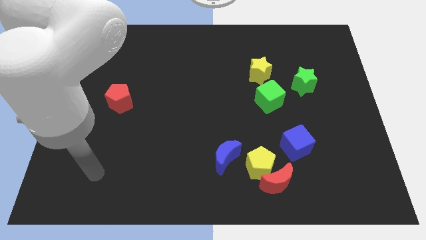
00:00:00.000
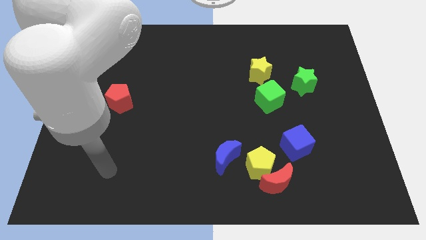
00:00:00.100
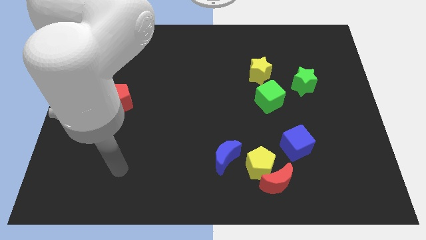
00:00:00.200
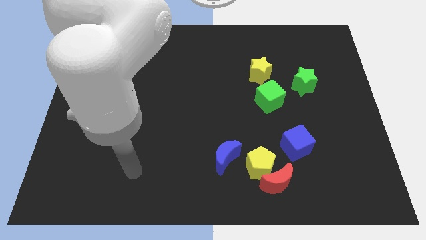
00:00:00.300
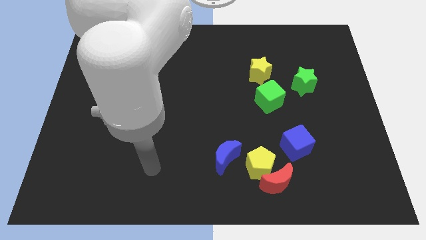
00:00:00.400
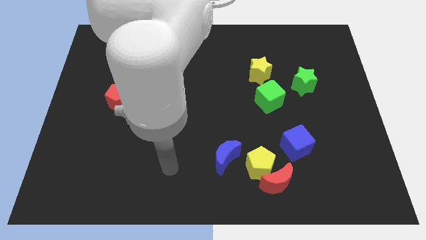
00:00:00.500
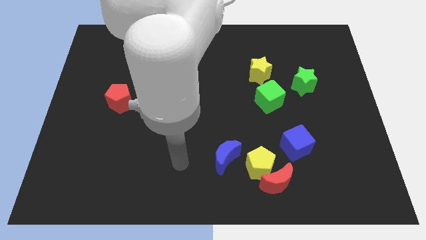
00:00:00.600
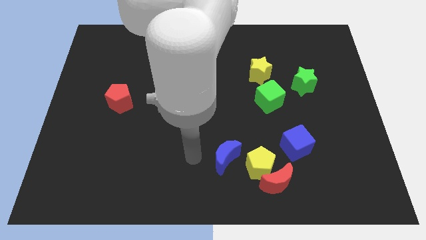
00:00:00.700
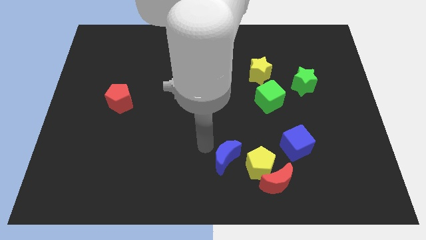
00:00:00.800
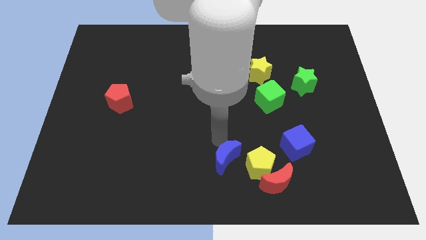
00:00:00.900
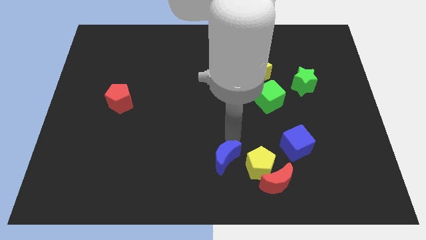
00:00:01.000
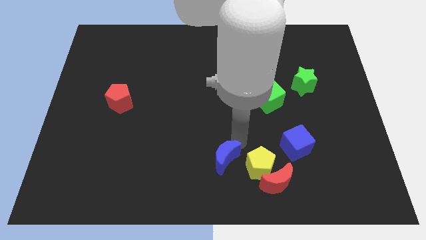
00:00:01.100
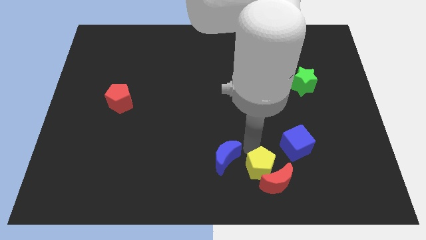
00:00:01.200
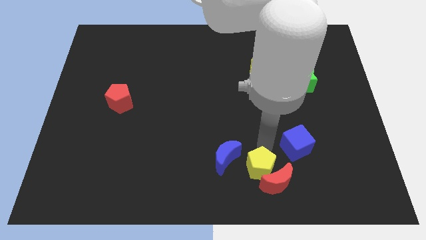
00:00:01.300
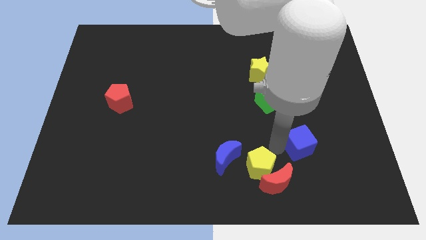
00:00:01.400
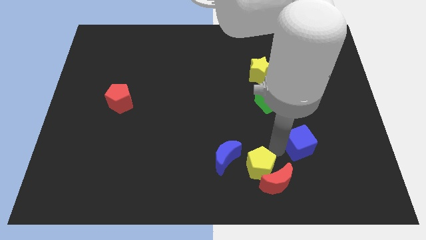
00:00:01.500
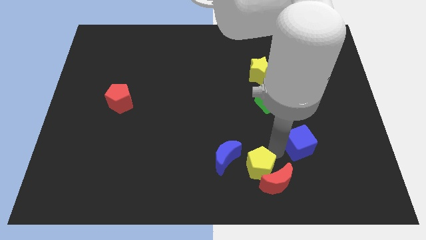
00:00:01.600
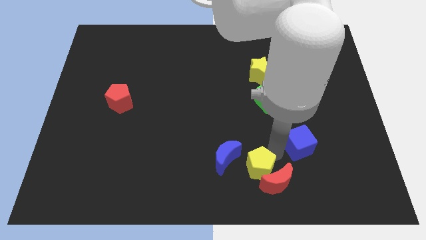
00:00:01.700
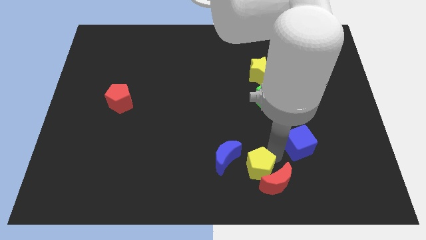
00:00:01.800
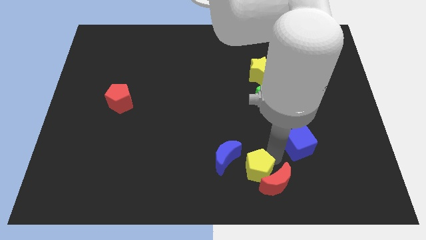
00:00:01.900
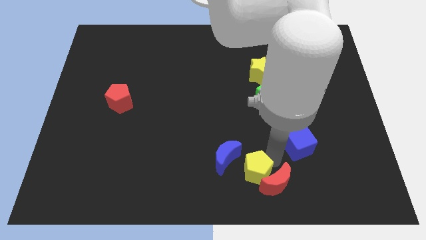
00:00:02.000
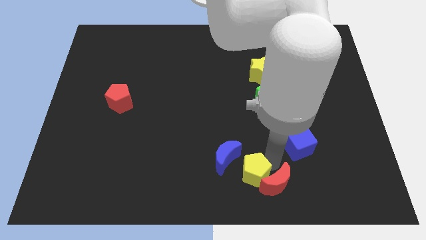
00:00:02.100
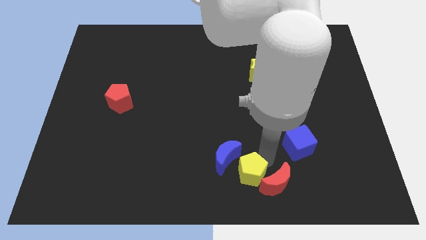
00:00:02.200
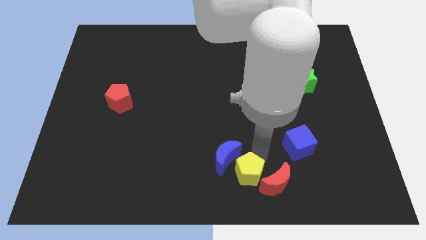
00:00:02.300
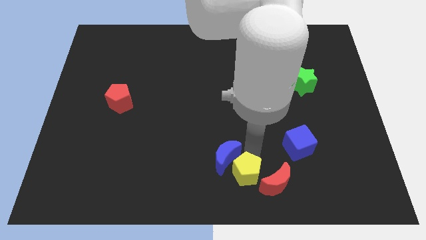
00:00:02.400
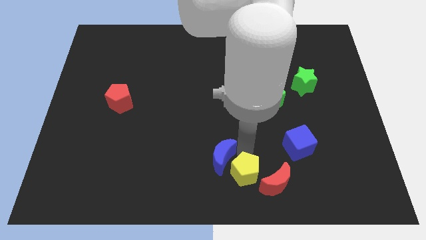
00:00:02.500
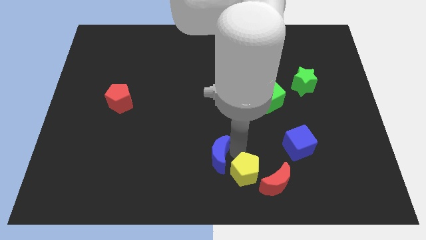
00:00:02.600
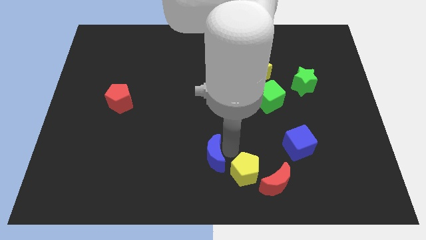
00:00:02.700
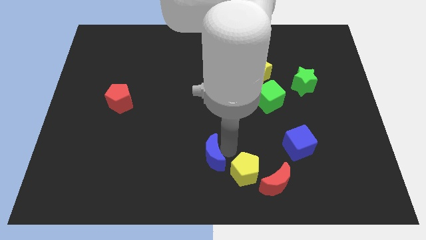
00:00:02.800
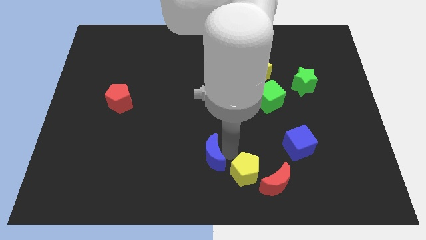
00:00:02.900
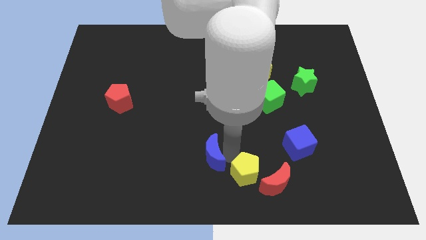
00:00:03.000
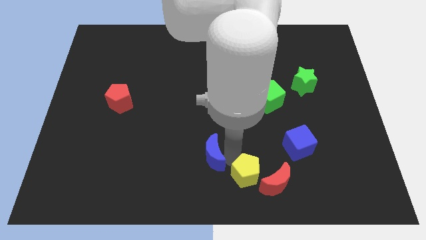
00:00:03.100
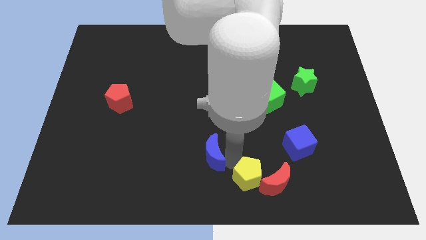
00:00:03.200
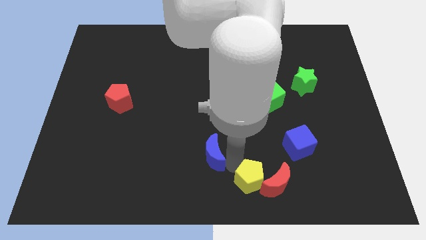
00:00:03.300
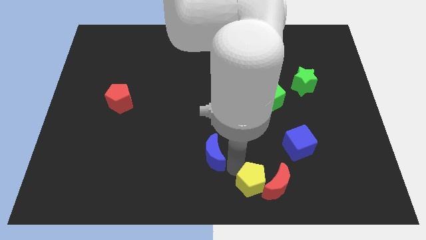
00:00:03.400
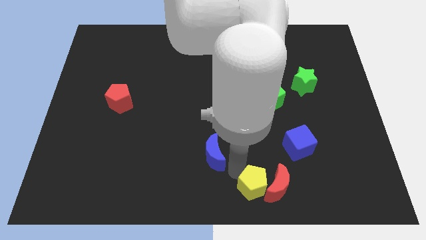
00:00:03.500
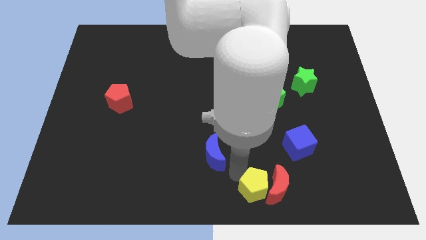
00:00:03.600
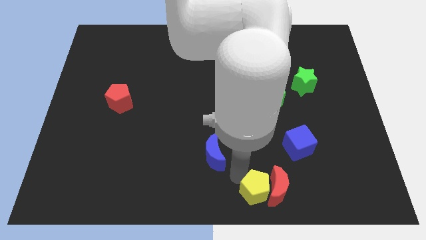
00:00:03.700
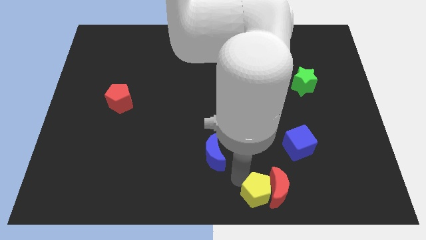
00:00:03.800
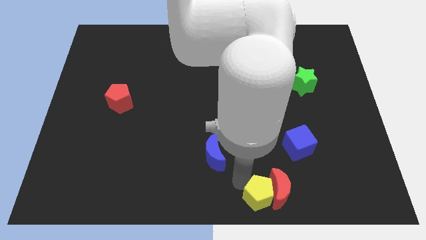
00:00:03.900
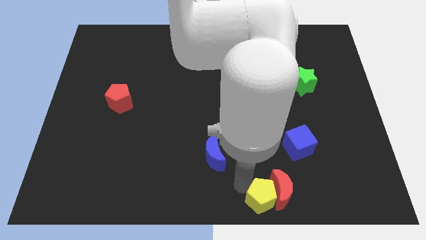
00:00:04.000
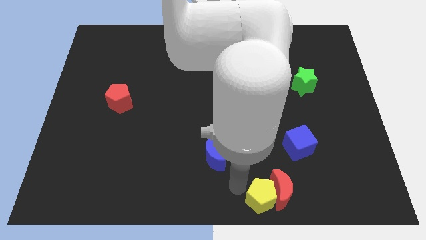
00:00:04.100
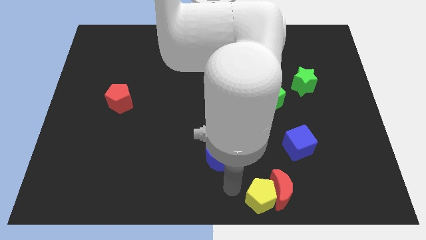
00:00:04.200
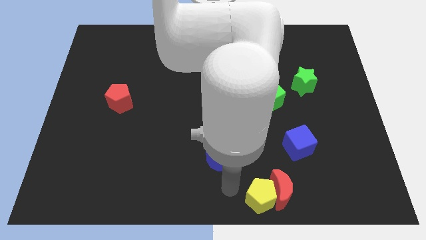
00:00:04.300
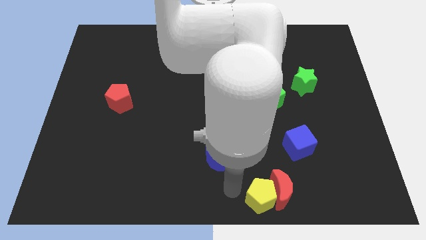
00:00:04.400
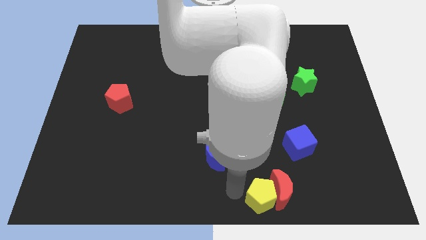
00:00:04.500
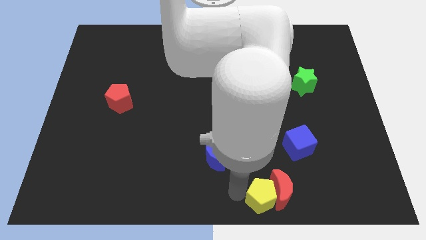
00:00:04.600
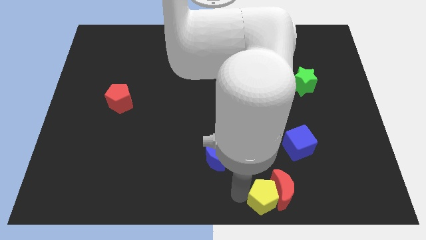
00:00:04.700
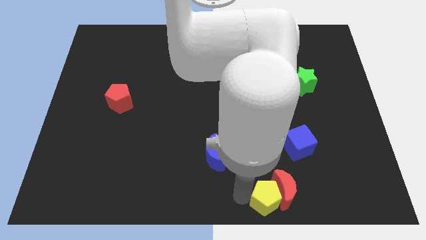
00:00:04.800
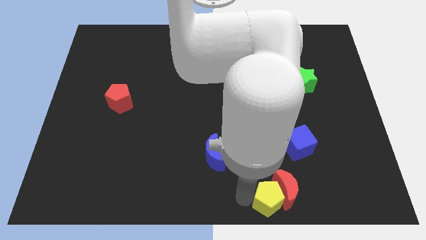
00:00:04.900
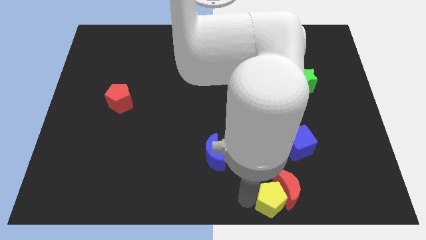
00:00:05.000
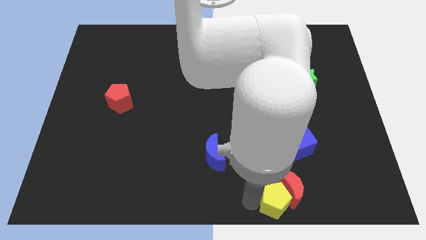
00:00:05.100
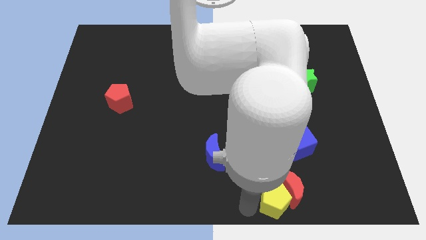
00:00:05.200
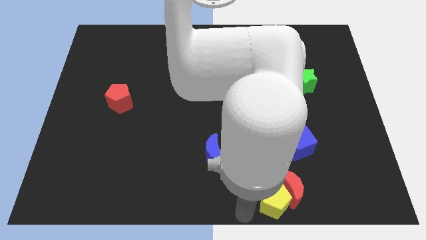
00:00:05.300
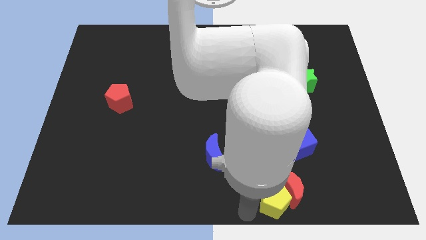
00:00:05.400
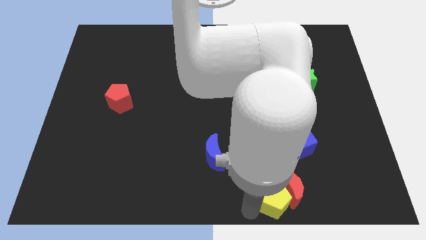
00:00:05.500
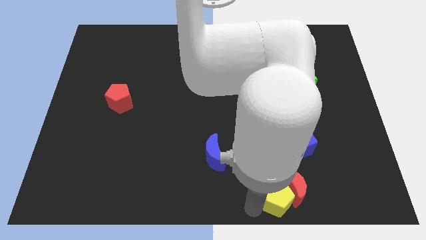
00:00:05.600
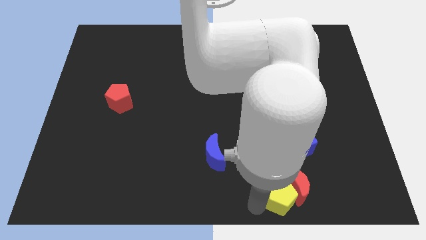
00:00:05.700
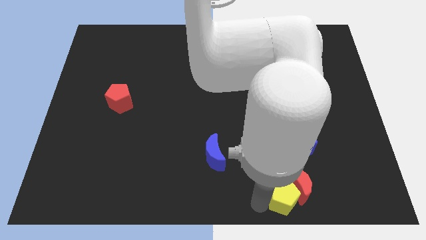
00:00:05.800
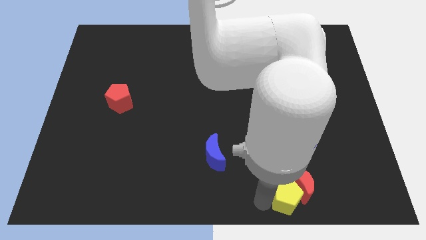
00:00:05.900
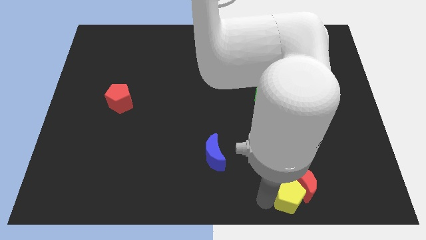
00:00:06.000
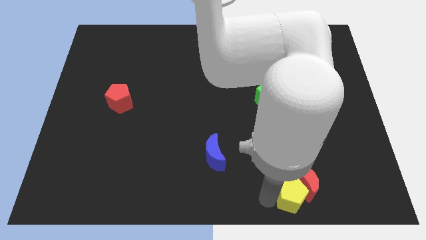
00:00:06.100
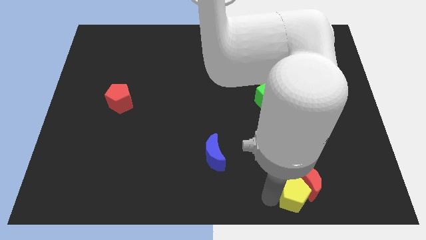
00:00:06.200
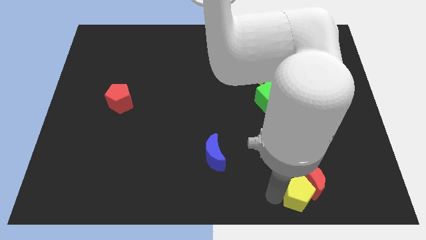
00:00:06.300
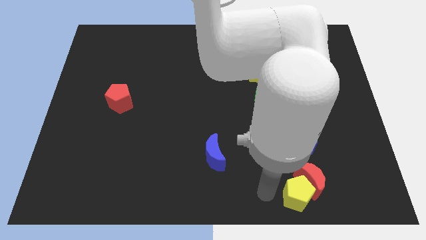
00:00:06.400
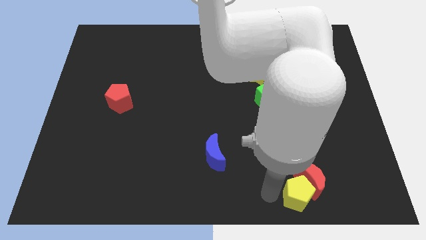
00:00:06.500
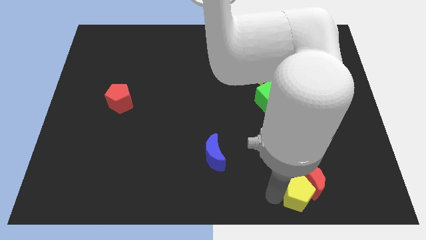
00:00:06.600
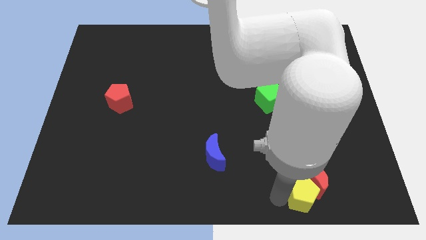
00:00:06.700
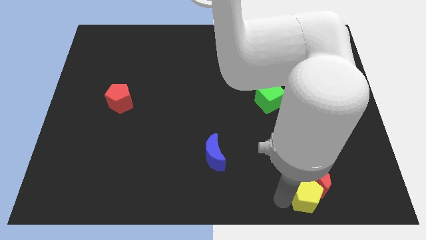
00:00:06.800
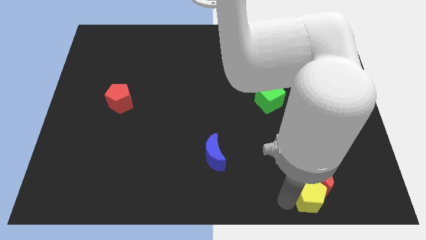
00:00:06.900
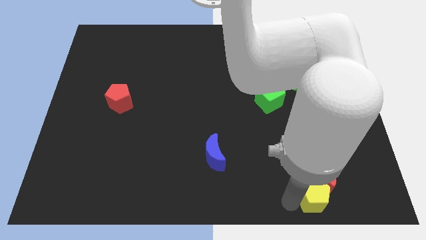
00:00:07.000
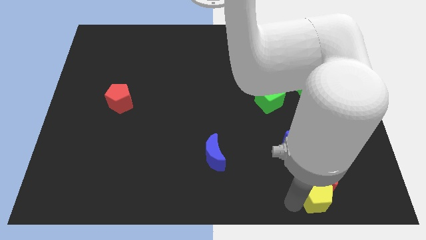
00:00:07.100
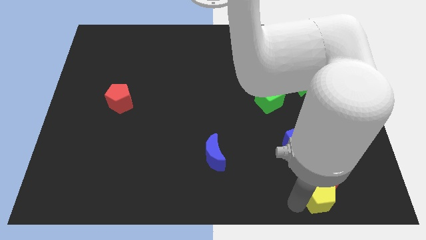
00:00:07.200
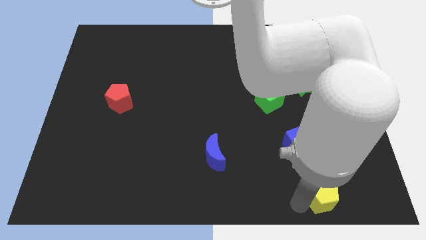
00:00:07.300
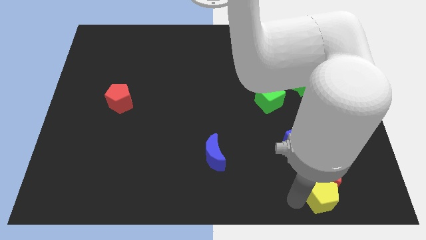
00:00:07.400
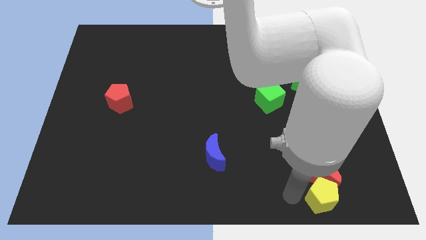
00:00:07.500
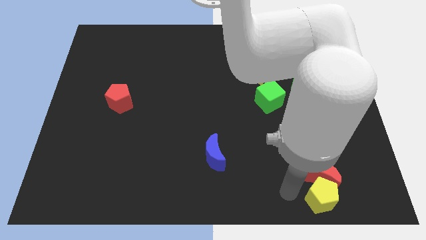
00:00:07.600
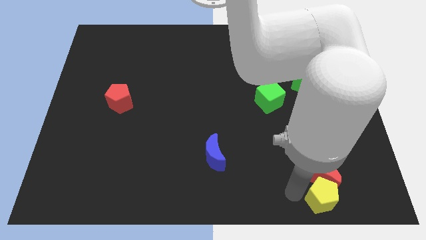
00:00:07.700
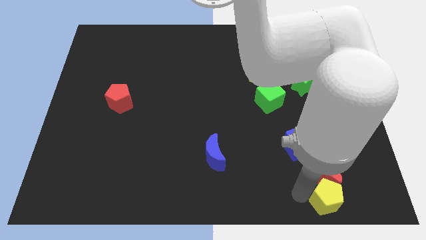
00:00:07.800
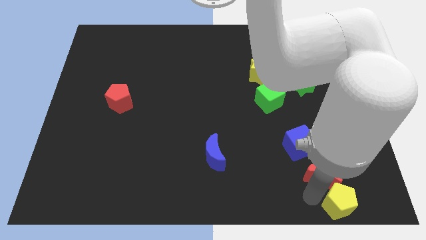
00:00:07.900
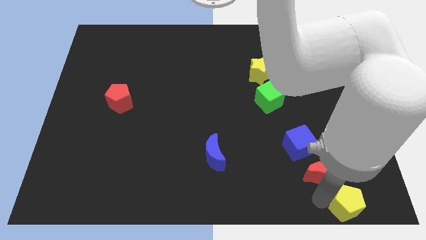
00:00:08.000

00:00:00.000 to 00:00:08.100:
push the yellow pentagon to the bottom right of the board
